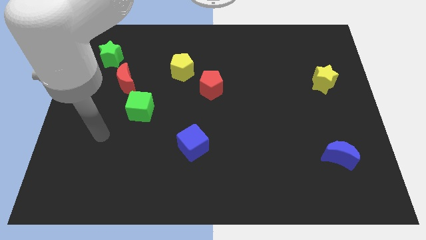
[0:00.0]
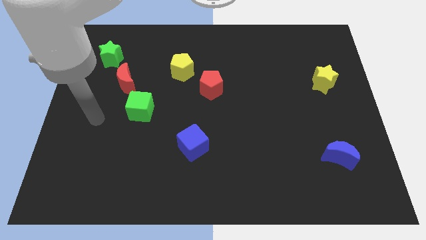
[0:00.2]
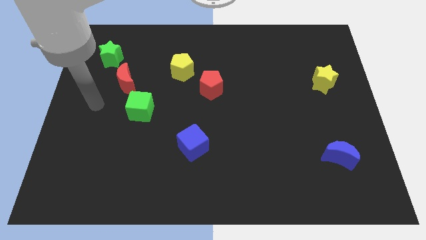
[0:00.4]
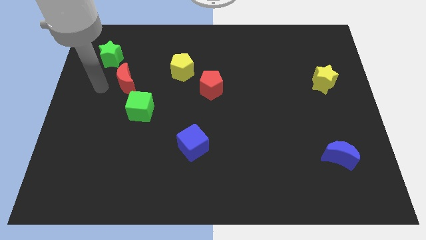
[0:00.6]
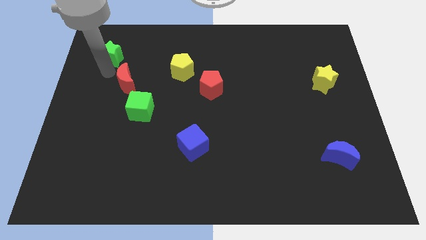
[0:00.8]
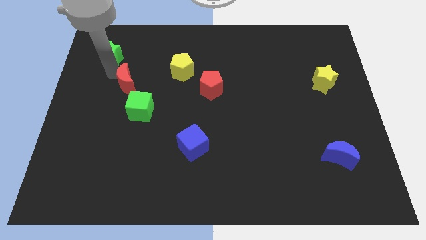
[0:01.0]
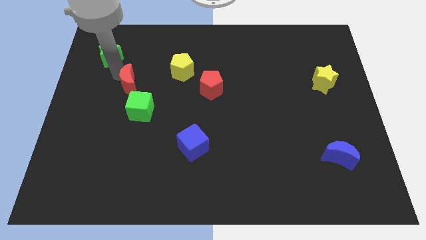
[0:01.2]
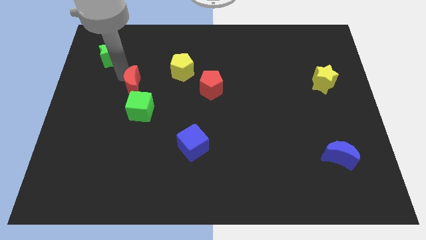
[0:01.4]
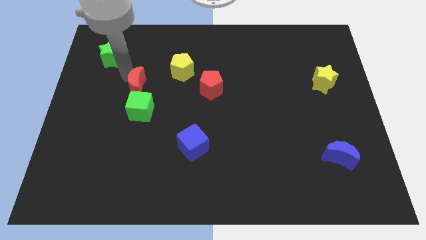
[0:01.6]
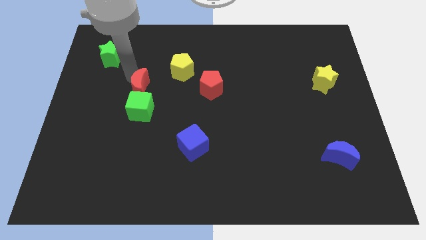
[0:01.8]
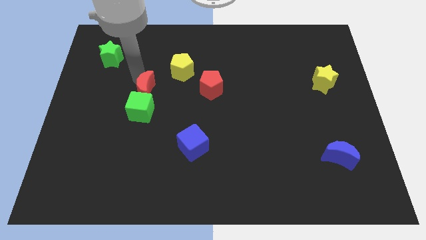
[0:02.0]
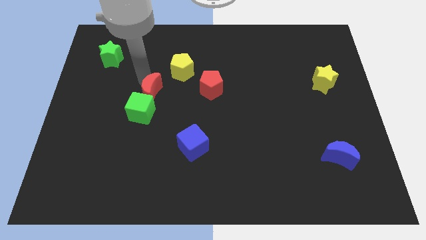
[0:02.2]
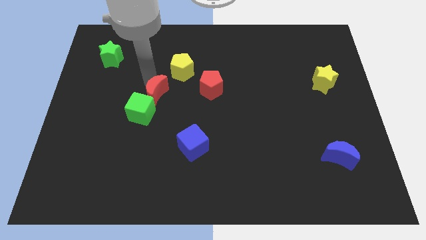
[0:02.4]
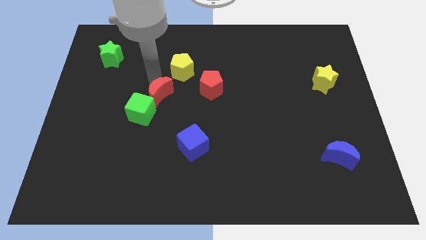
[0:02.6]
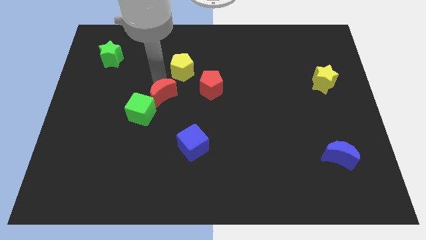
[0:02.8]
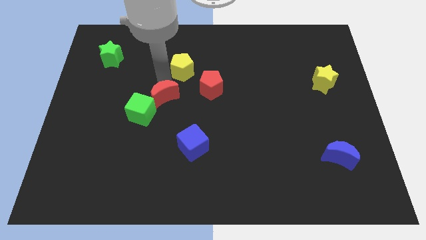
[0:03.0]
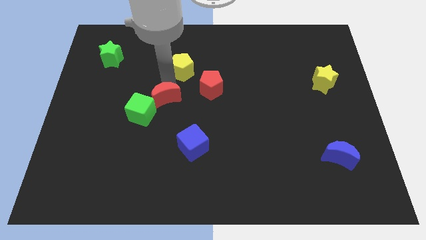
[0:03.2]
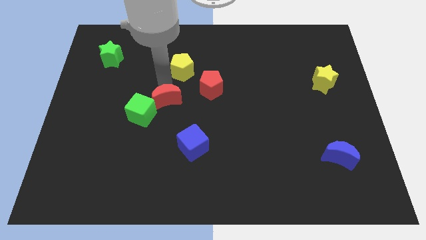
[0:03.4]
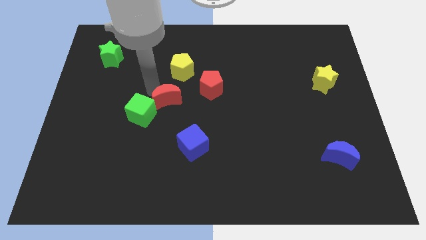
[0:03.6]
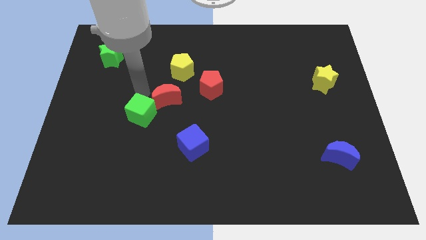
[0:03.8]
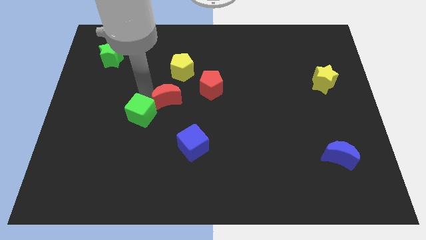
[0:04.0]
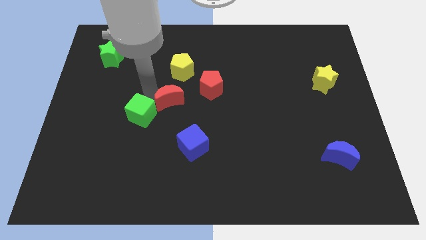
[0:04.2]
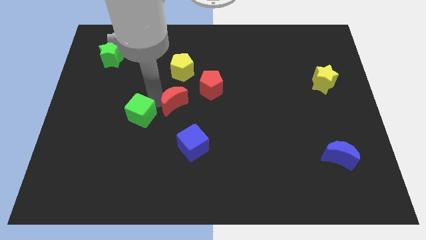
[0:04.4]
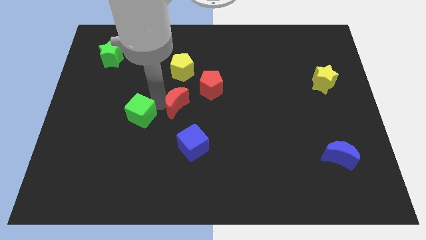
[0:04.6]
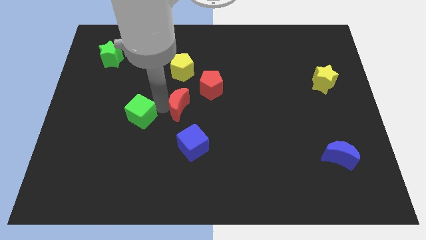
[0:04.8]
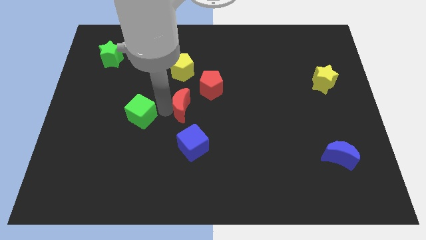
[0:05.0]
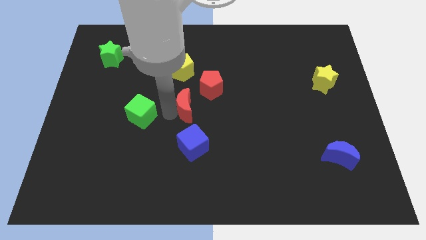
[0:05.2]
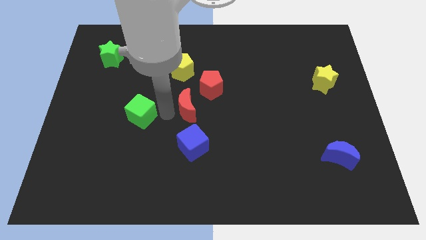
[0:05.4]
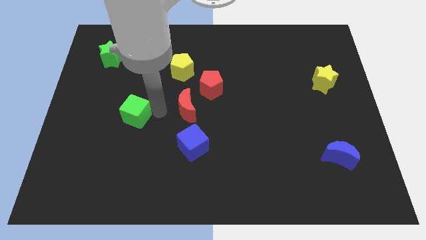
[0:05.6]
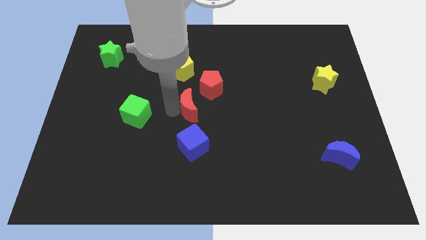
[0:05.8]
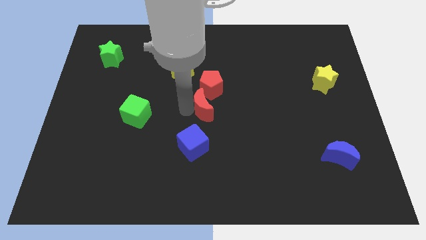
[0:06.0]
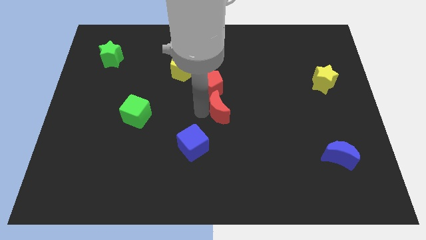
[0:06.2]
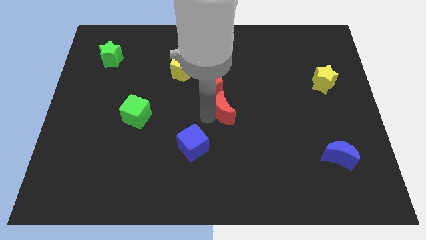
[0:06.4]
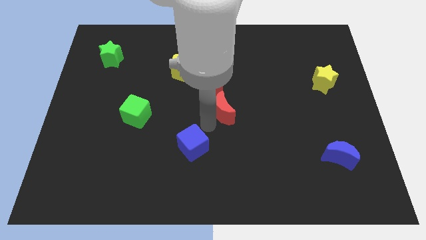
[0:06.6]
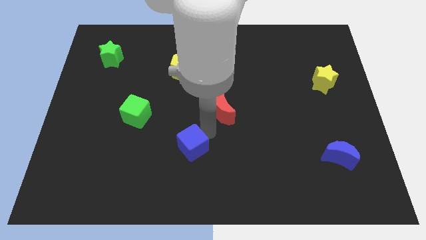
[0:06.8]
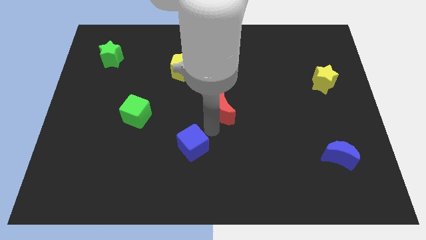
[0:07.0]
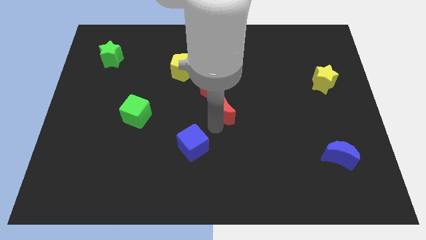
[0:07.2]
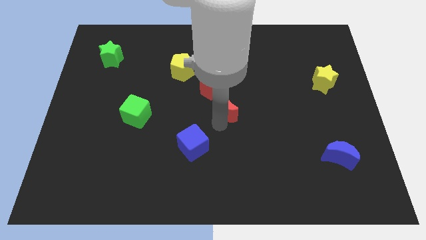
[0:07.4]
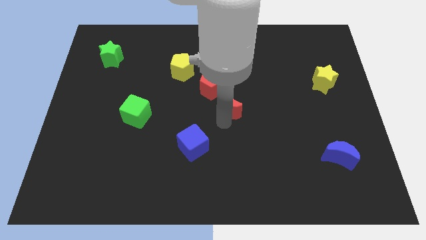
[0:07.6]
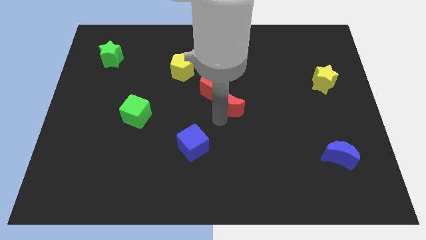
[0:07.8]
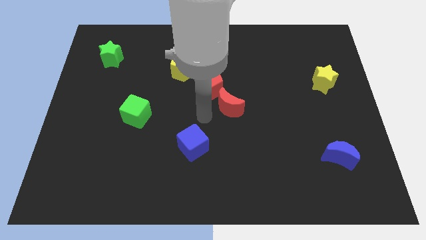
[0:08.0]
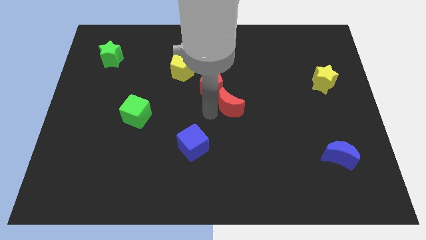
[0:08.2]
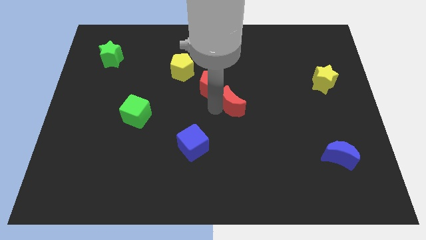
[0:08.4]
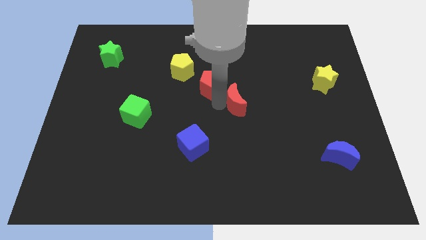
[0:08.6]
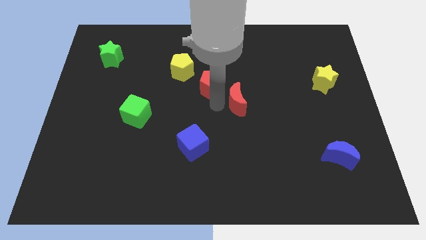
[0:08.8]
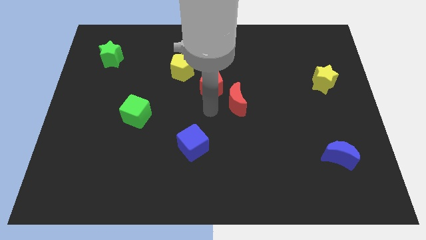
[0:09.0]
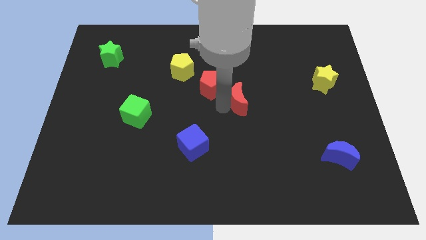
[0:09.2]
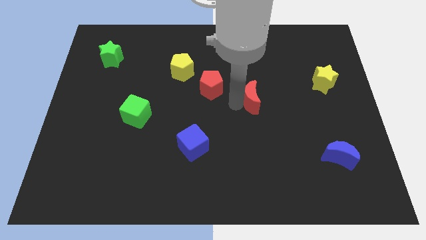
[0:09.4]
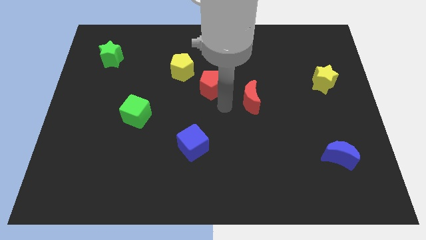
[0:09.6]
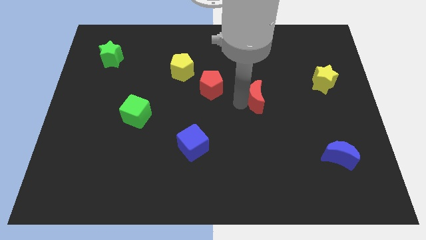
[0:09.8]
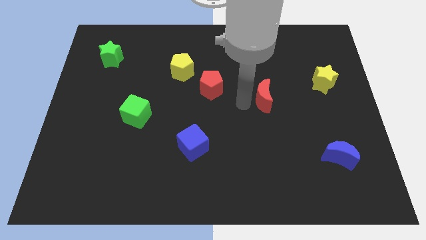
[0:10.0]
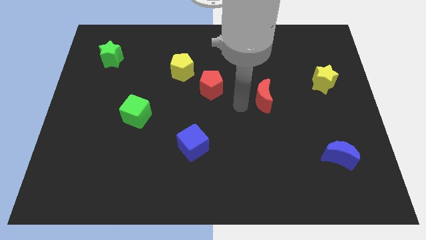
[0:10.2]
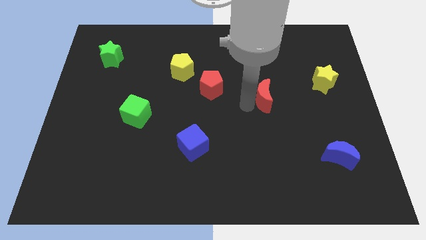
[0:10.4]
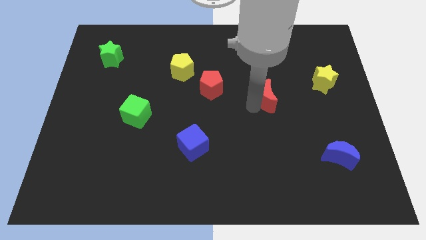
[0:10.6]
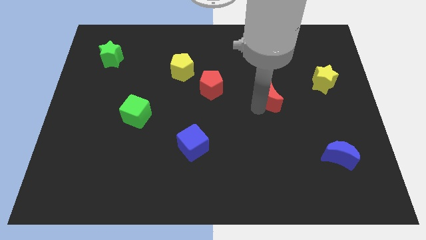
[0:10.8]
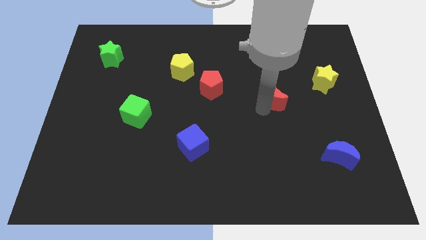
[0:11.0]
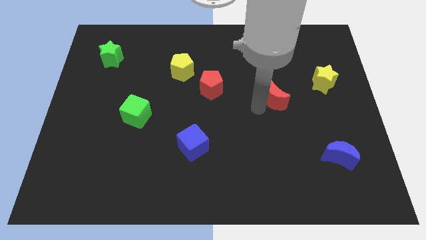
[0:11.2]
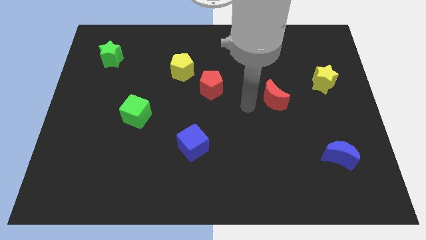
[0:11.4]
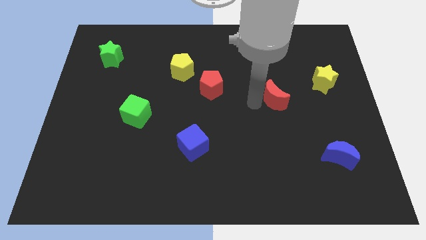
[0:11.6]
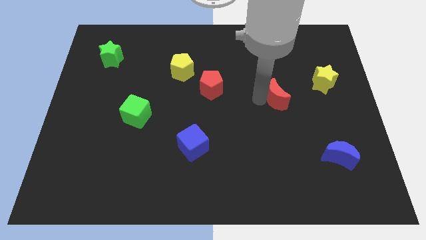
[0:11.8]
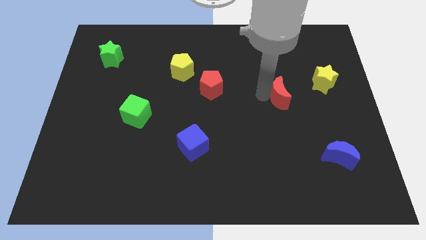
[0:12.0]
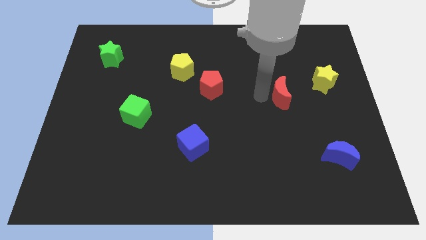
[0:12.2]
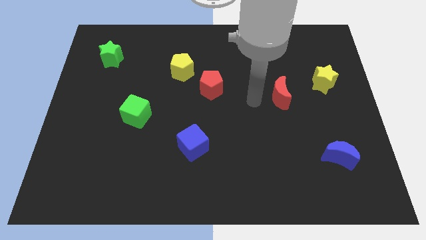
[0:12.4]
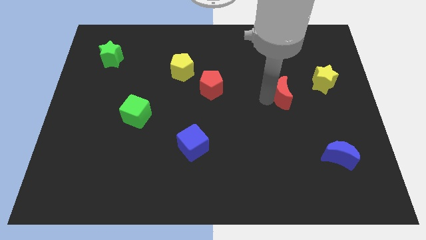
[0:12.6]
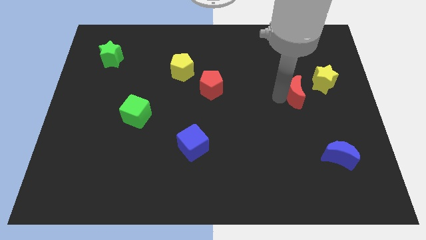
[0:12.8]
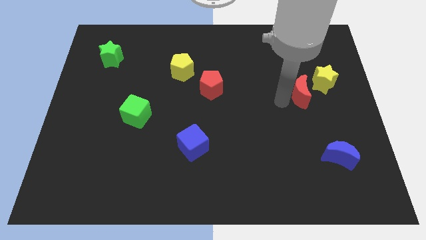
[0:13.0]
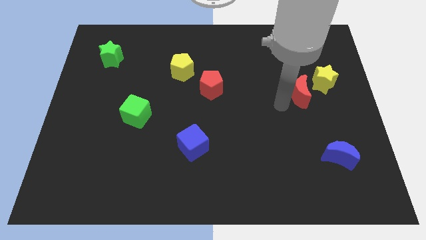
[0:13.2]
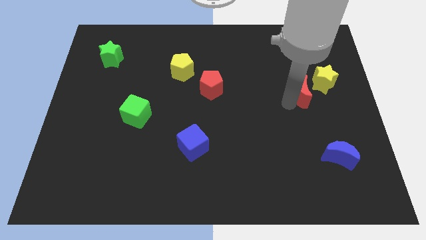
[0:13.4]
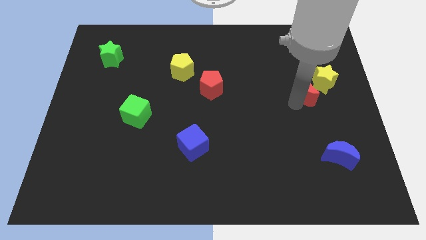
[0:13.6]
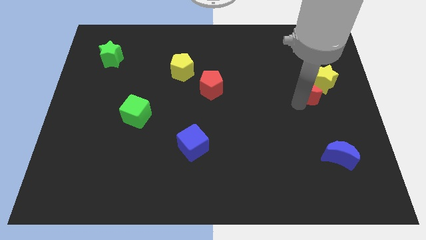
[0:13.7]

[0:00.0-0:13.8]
push the red moon next to the yellow star
